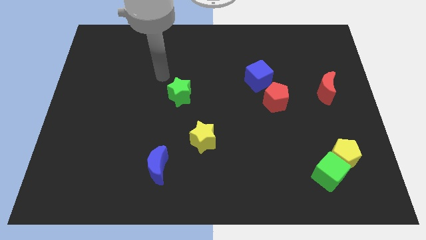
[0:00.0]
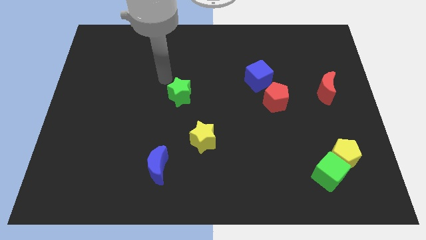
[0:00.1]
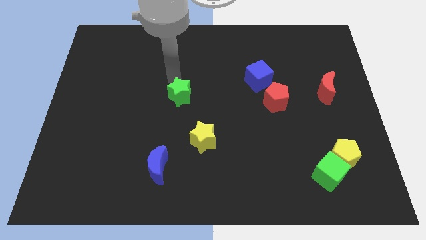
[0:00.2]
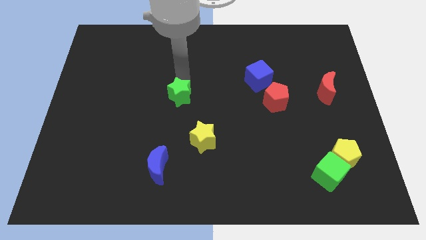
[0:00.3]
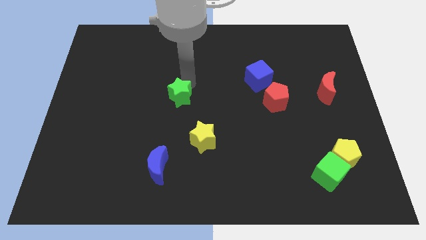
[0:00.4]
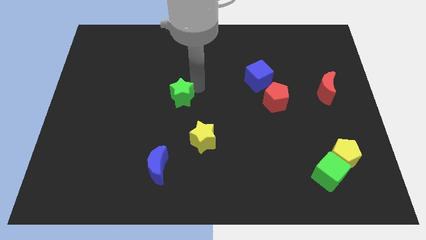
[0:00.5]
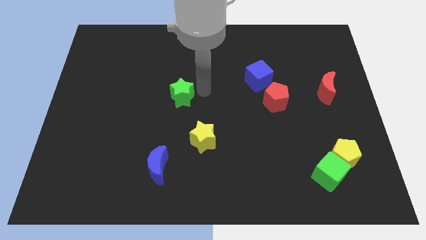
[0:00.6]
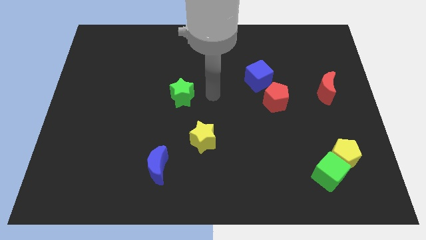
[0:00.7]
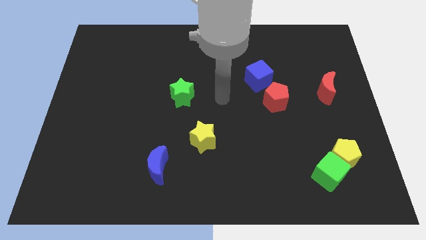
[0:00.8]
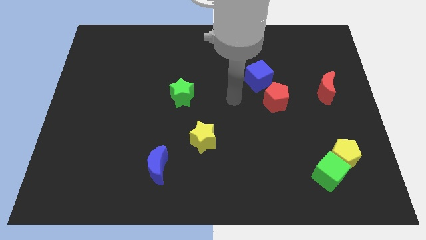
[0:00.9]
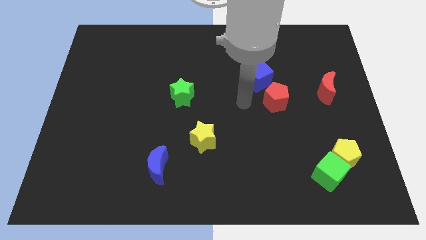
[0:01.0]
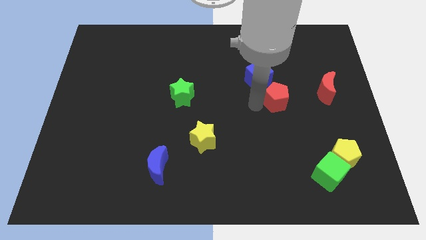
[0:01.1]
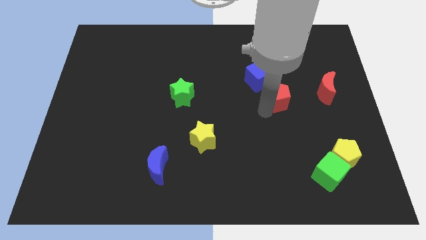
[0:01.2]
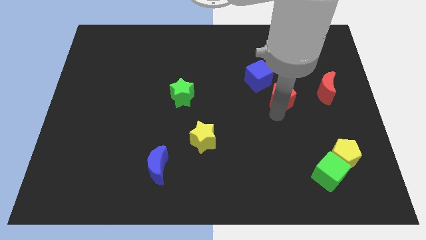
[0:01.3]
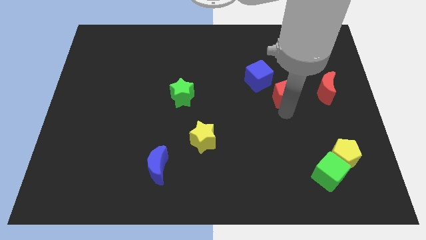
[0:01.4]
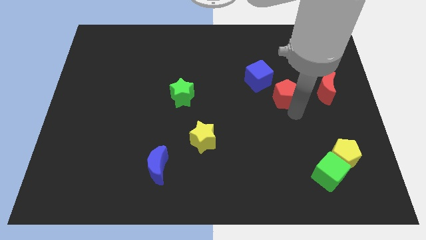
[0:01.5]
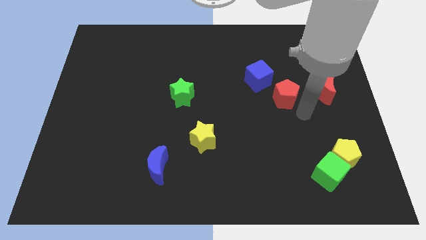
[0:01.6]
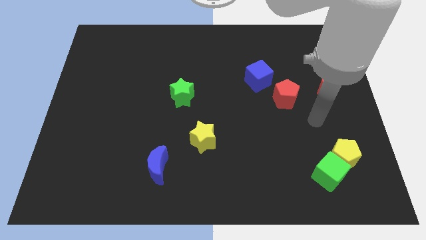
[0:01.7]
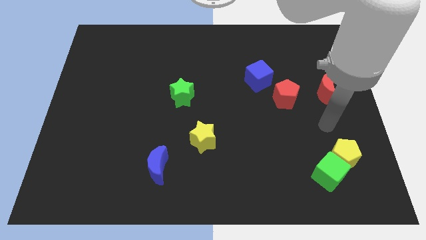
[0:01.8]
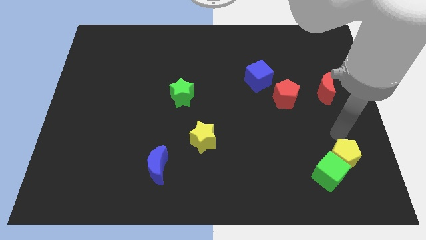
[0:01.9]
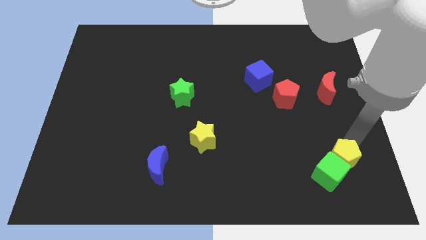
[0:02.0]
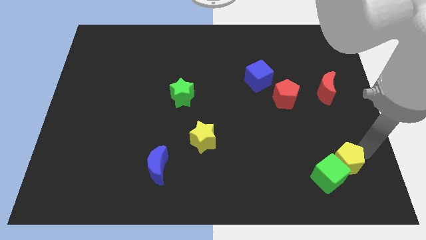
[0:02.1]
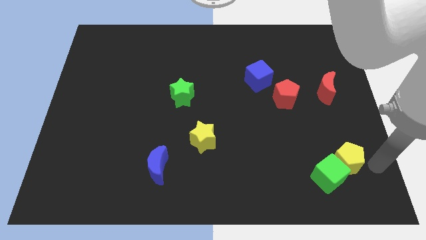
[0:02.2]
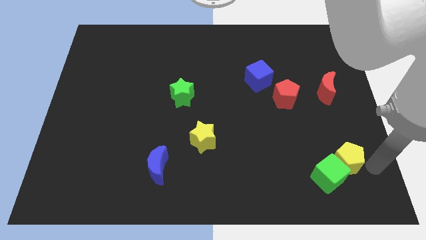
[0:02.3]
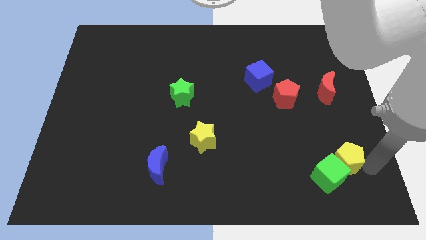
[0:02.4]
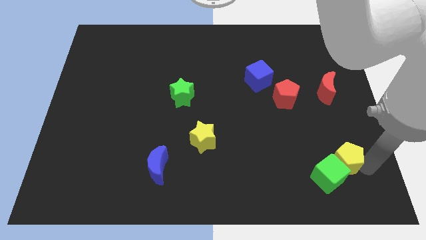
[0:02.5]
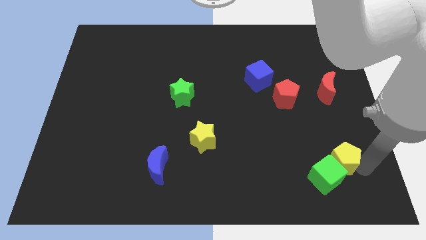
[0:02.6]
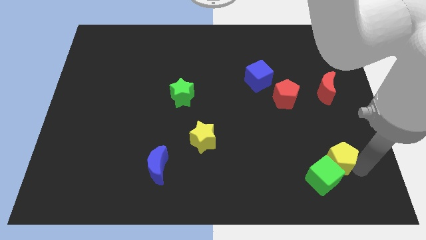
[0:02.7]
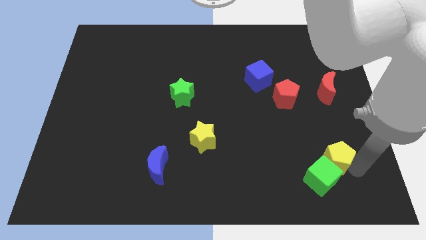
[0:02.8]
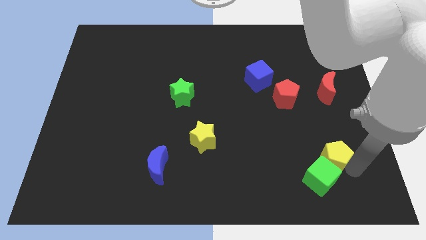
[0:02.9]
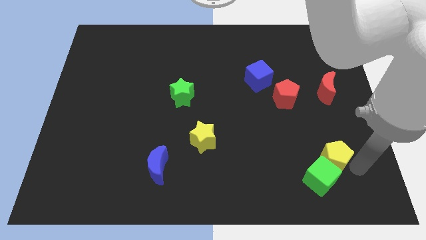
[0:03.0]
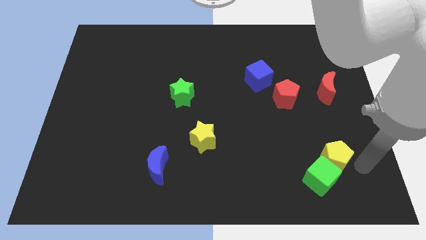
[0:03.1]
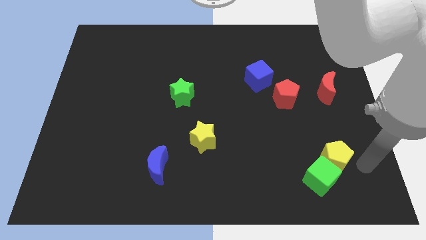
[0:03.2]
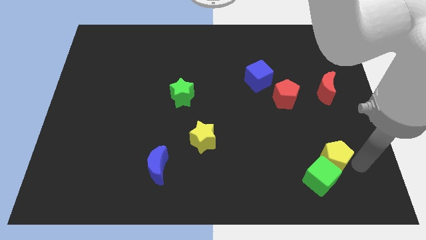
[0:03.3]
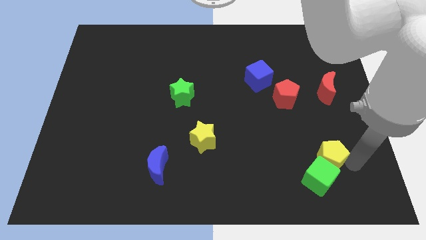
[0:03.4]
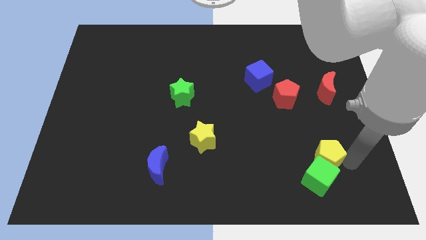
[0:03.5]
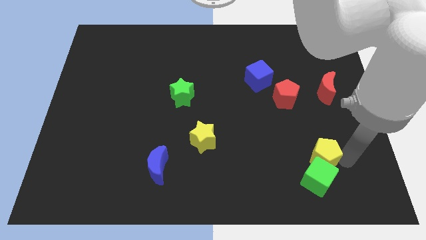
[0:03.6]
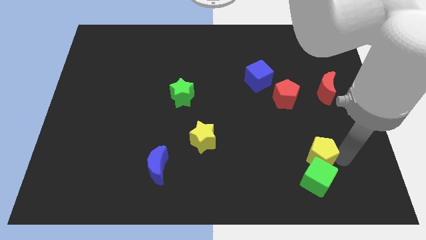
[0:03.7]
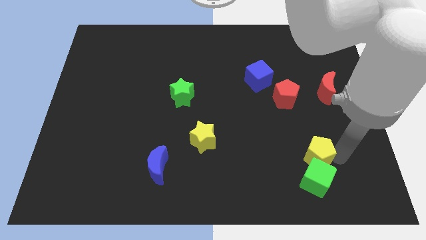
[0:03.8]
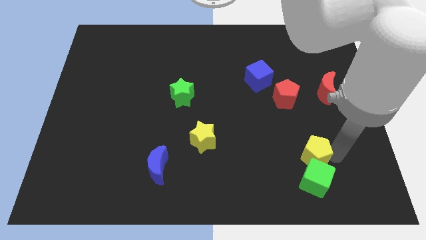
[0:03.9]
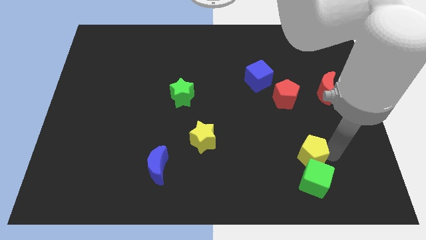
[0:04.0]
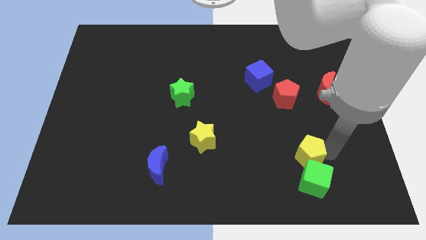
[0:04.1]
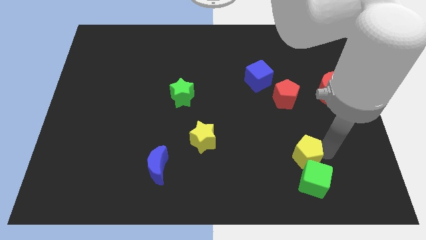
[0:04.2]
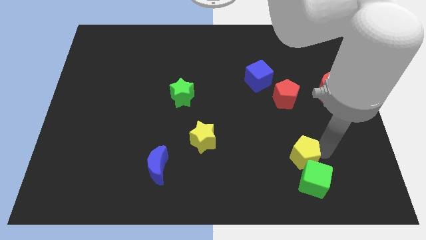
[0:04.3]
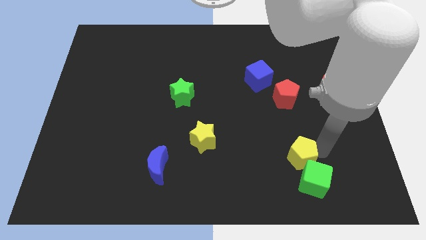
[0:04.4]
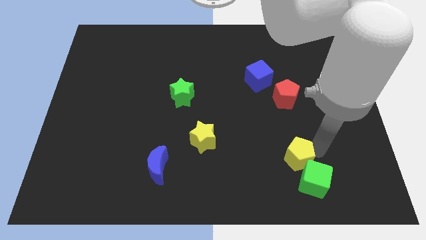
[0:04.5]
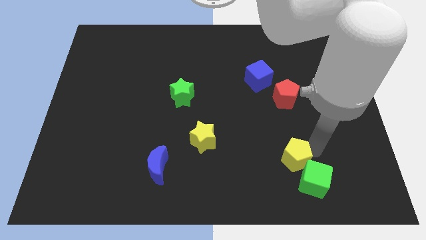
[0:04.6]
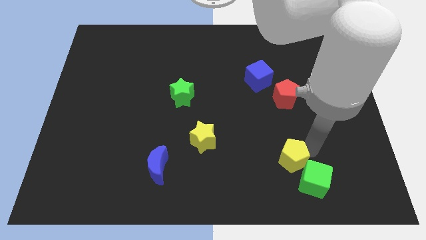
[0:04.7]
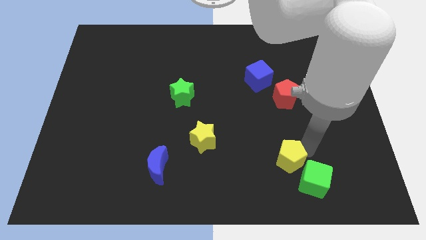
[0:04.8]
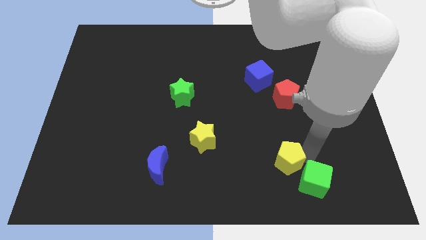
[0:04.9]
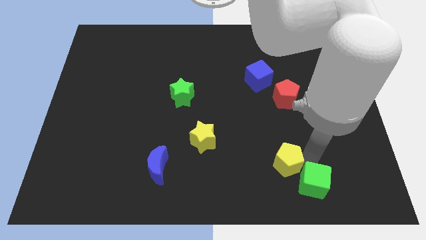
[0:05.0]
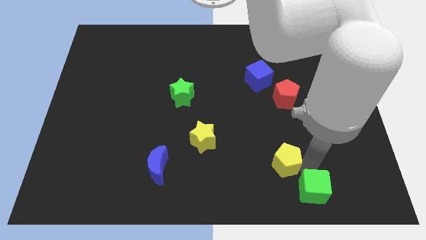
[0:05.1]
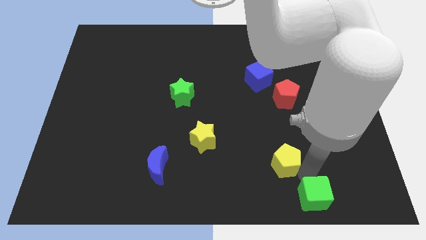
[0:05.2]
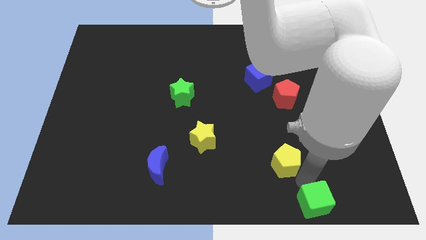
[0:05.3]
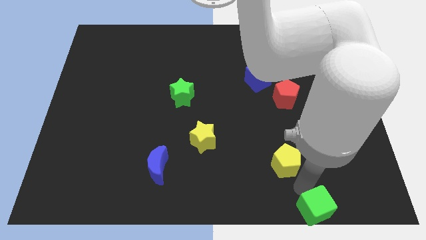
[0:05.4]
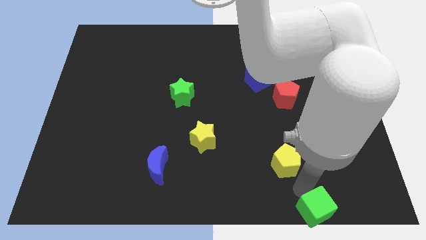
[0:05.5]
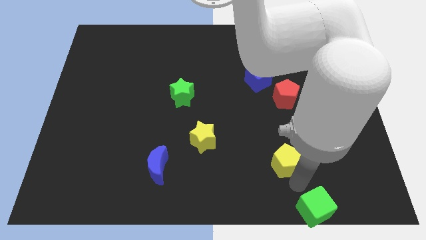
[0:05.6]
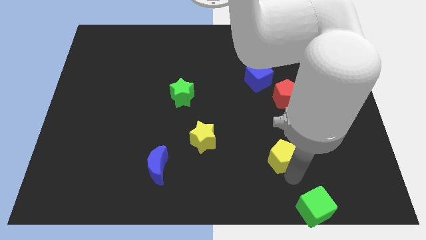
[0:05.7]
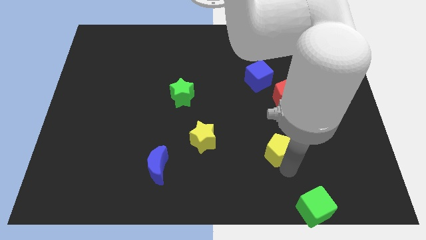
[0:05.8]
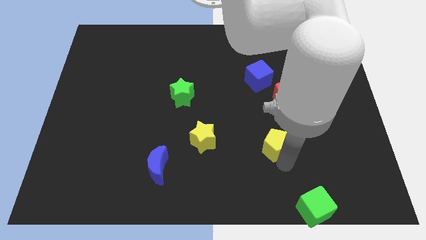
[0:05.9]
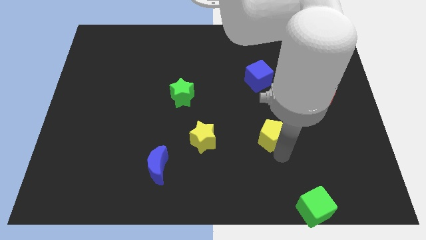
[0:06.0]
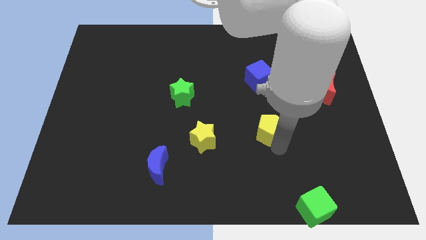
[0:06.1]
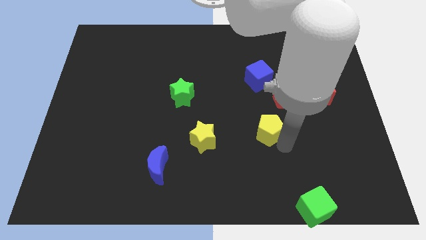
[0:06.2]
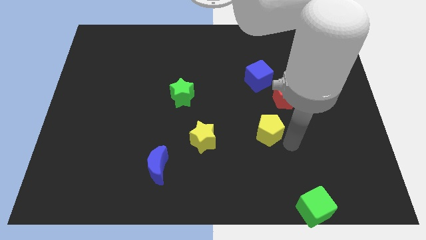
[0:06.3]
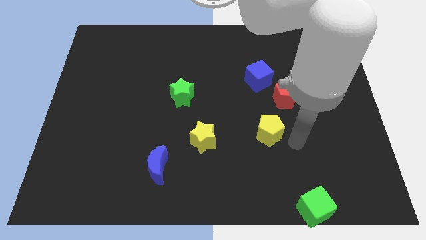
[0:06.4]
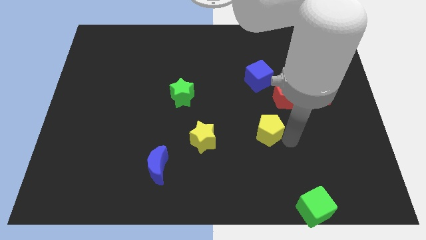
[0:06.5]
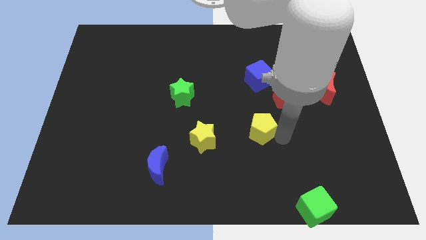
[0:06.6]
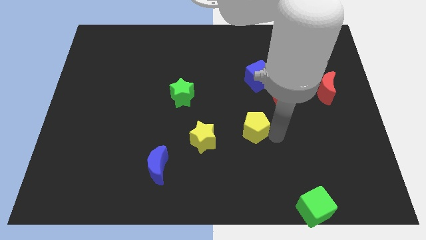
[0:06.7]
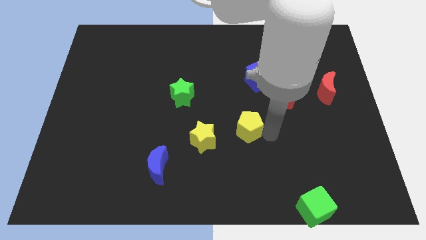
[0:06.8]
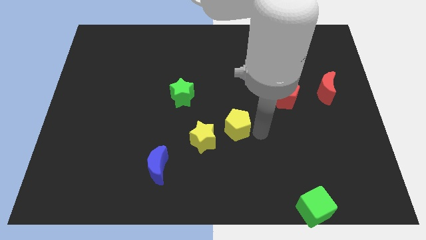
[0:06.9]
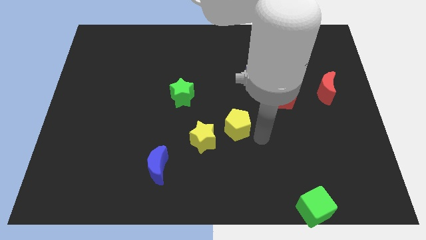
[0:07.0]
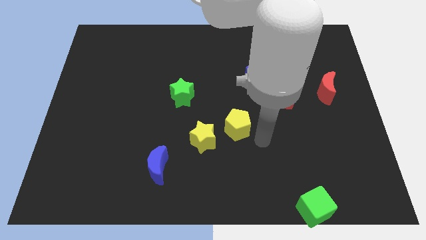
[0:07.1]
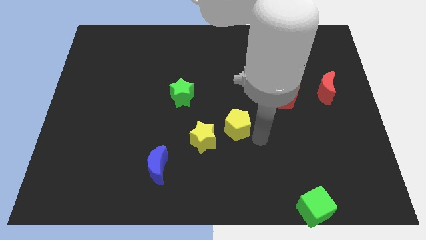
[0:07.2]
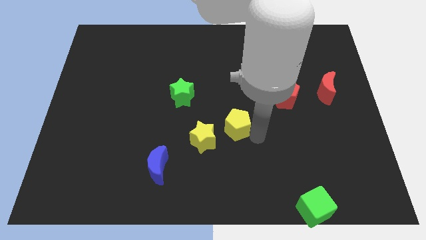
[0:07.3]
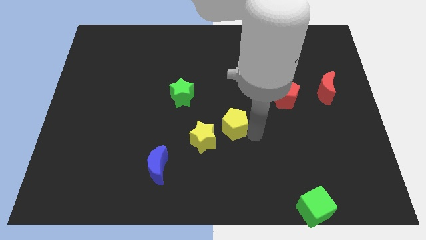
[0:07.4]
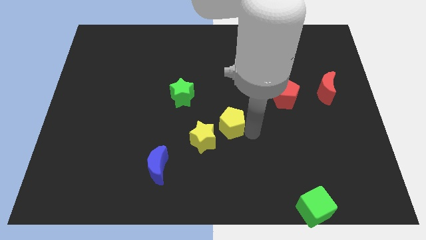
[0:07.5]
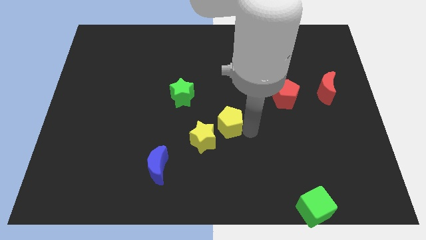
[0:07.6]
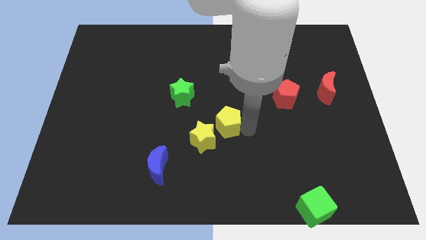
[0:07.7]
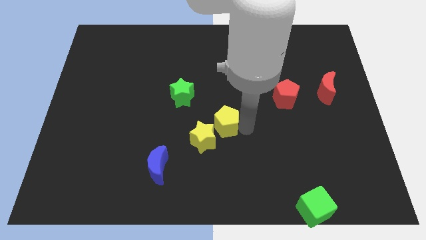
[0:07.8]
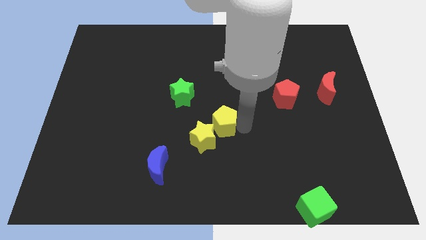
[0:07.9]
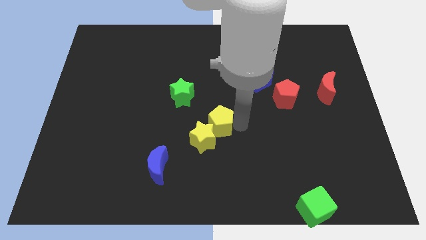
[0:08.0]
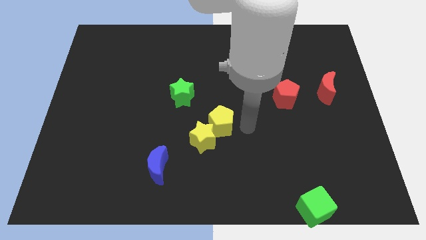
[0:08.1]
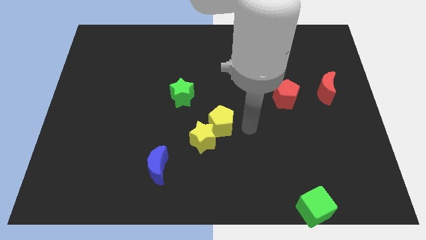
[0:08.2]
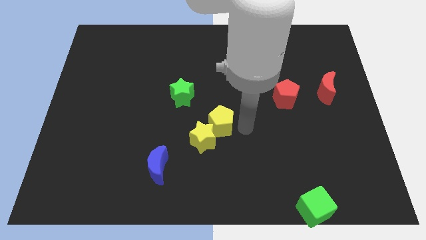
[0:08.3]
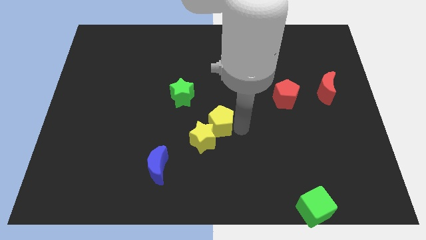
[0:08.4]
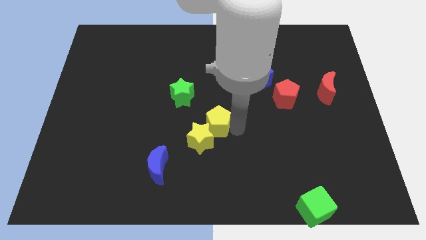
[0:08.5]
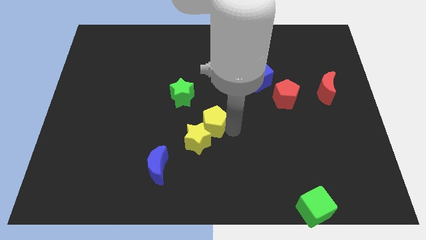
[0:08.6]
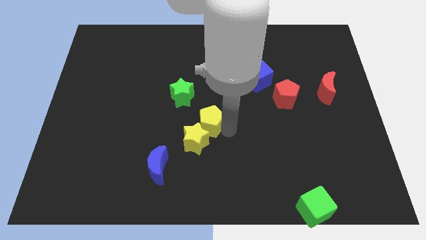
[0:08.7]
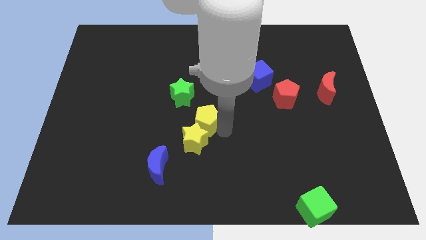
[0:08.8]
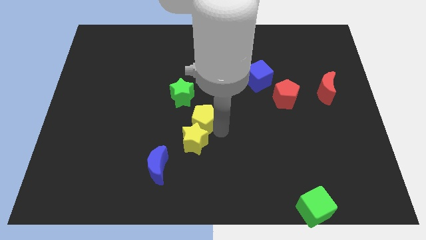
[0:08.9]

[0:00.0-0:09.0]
slide the yellow pentagon diagonally up and to the left of the yellow star
